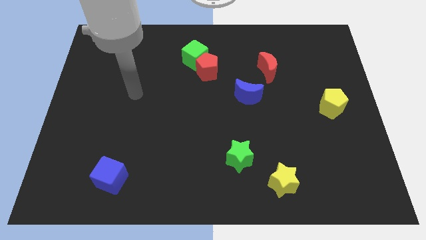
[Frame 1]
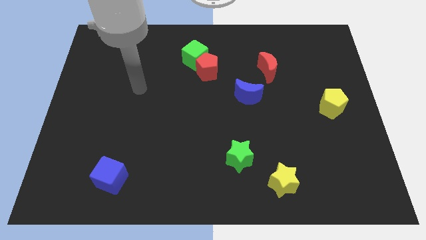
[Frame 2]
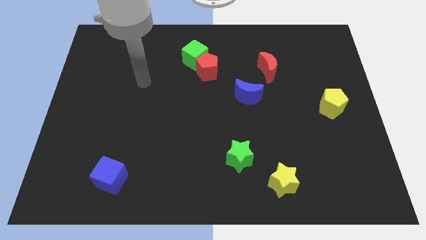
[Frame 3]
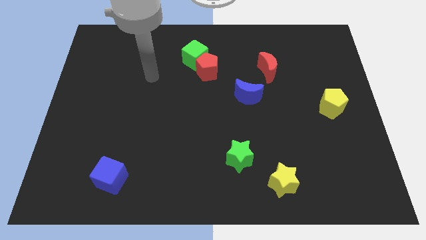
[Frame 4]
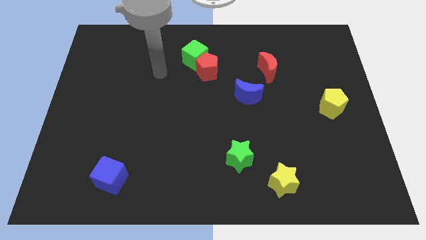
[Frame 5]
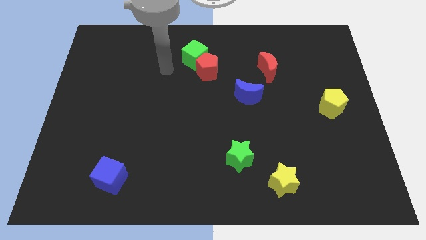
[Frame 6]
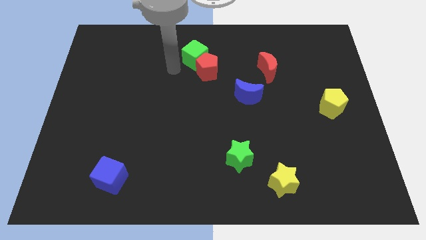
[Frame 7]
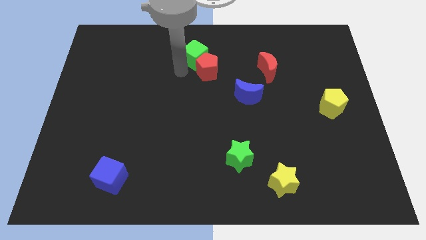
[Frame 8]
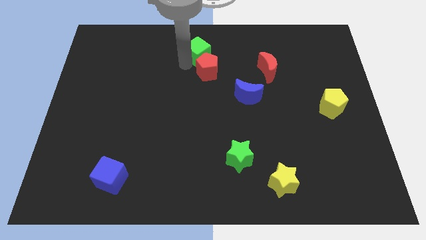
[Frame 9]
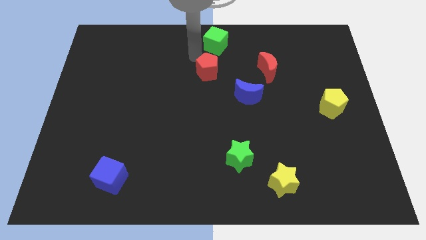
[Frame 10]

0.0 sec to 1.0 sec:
separate the red pentagon from the green cube

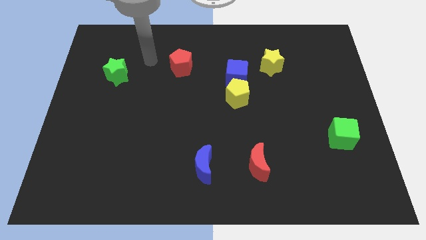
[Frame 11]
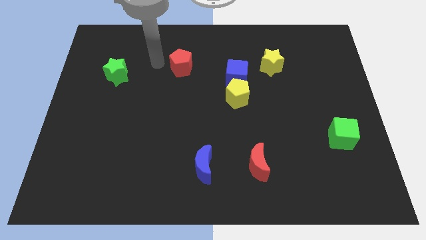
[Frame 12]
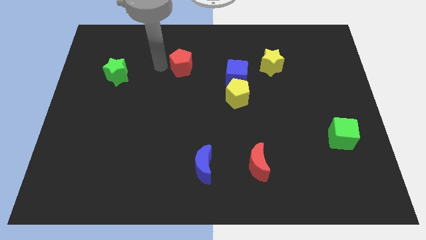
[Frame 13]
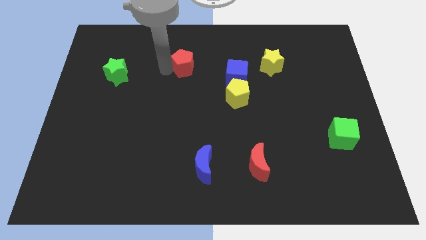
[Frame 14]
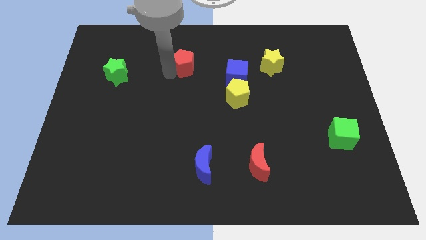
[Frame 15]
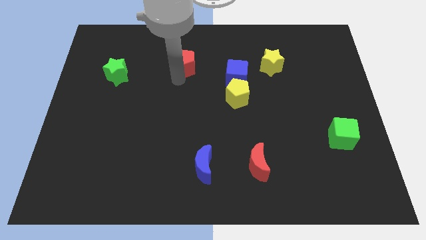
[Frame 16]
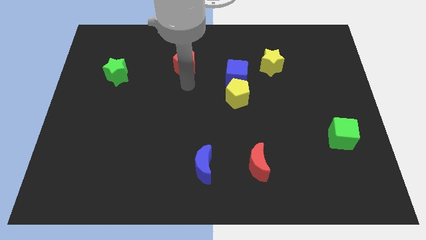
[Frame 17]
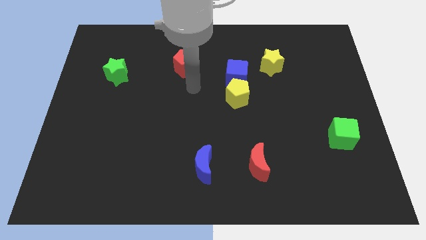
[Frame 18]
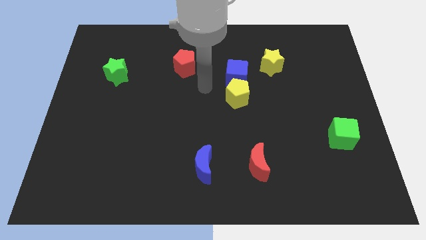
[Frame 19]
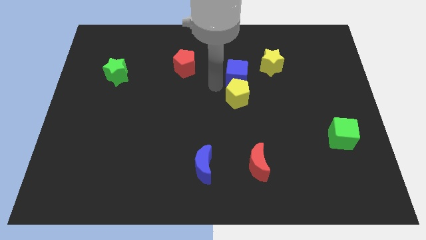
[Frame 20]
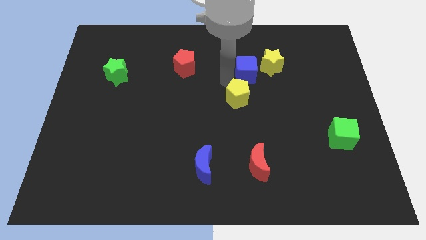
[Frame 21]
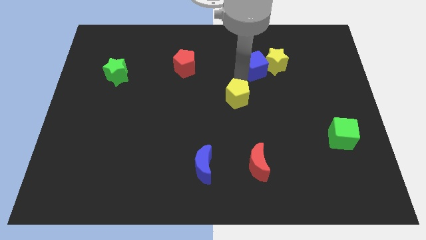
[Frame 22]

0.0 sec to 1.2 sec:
move the yellow pentagon away from the blue cube

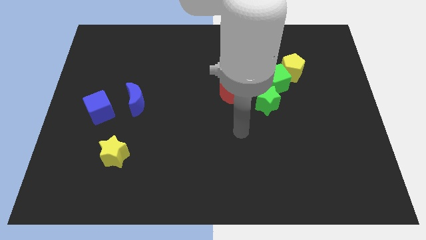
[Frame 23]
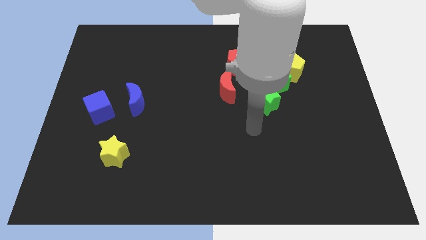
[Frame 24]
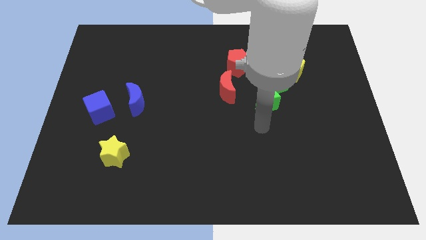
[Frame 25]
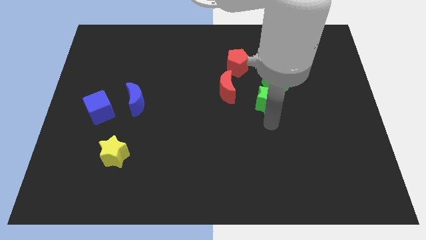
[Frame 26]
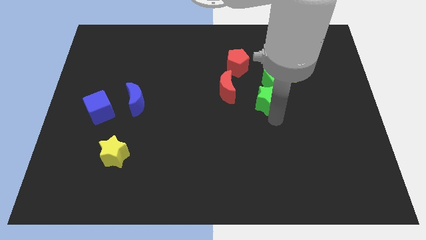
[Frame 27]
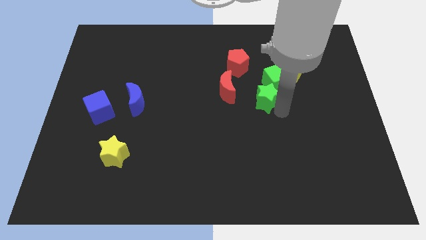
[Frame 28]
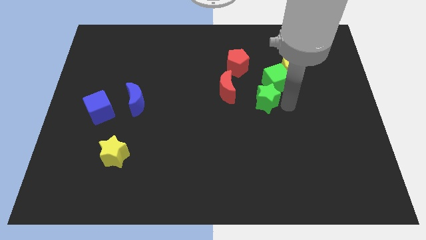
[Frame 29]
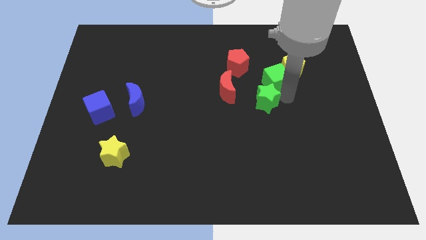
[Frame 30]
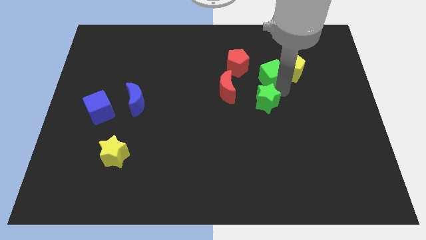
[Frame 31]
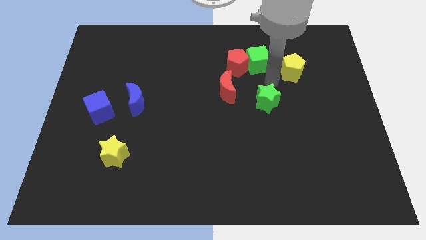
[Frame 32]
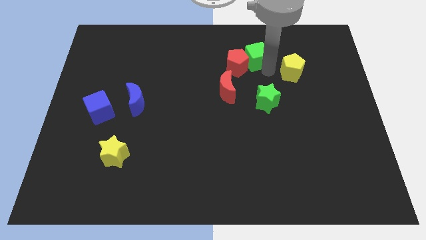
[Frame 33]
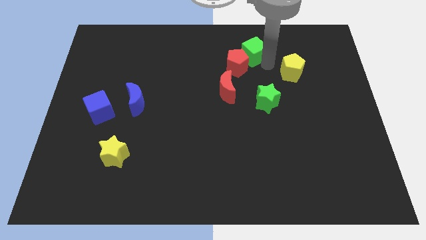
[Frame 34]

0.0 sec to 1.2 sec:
pull the yellow pentagon apart from the green cube

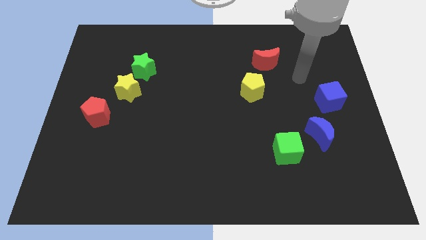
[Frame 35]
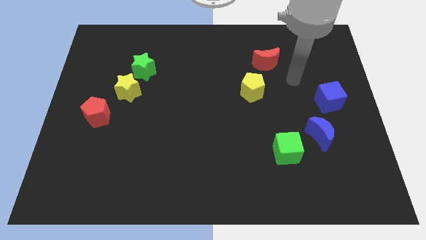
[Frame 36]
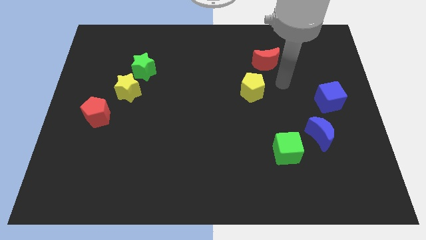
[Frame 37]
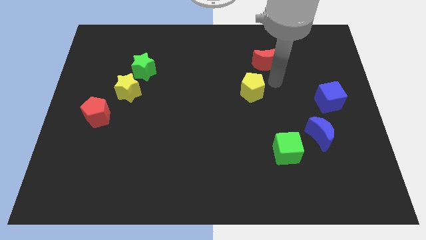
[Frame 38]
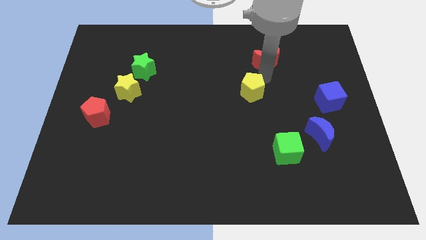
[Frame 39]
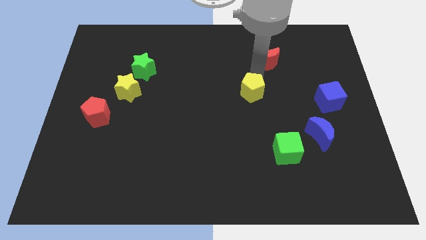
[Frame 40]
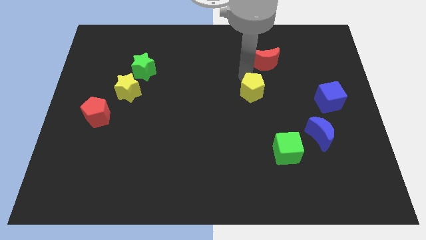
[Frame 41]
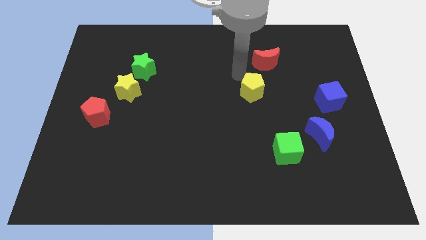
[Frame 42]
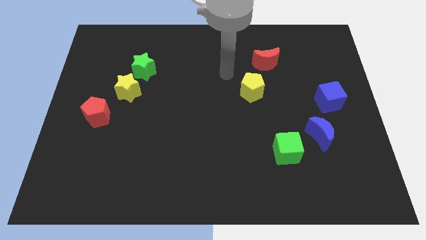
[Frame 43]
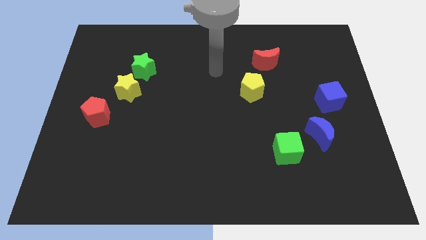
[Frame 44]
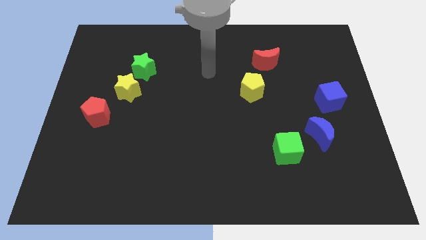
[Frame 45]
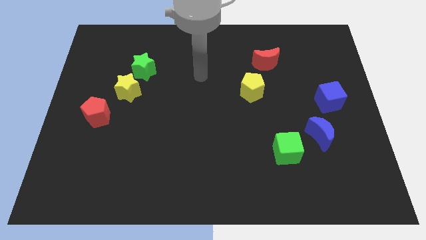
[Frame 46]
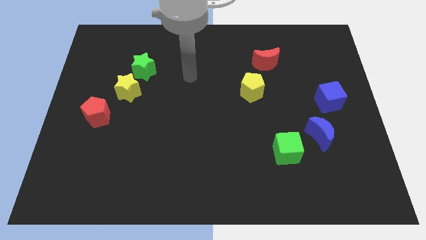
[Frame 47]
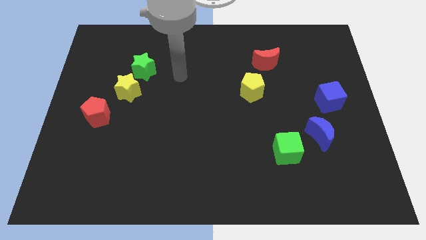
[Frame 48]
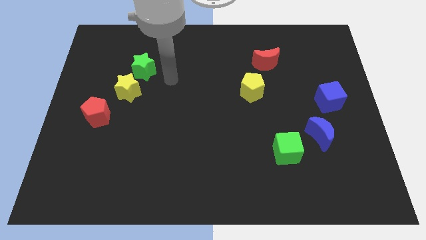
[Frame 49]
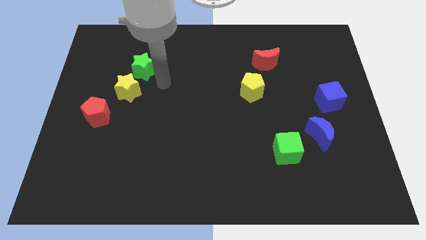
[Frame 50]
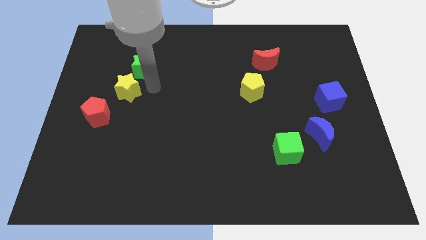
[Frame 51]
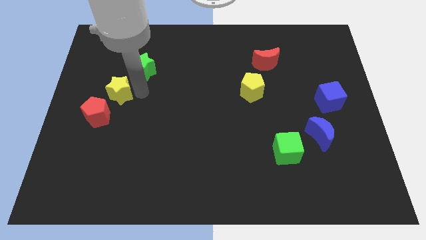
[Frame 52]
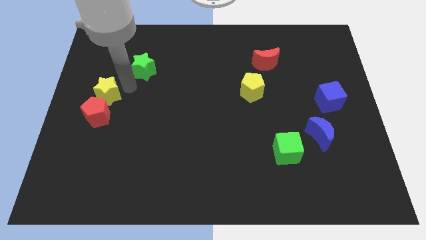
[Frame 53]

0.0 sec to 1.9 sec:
pull the green star apart from the yellow star

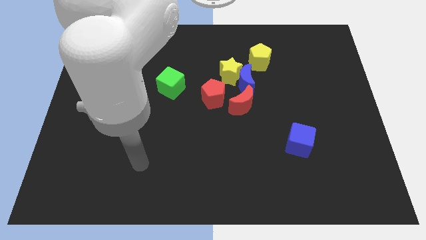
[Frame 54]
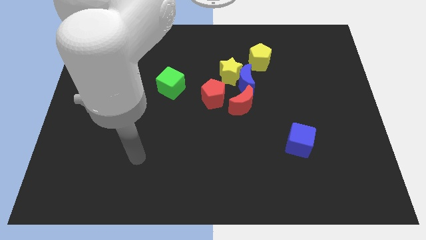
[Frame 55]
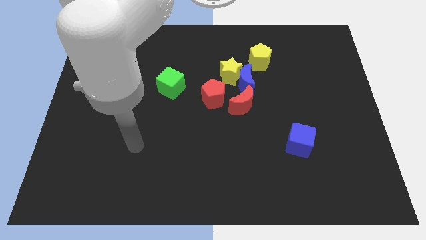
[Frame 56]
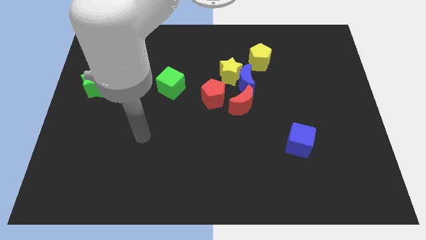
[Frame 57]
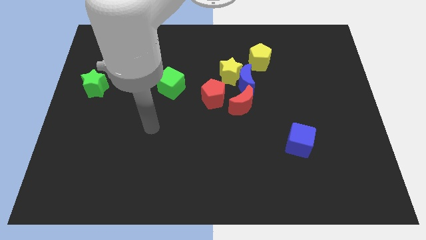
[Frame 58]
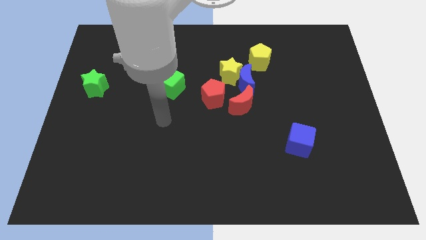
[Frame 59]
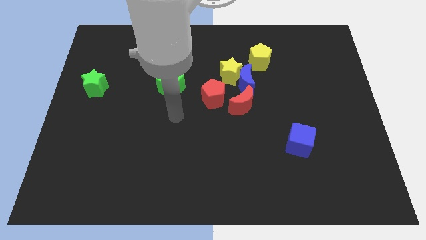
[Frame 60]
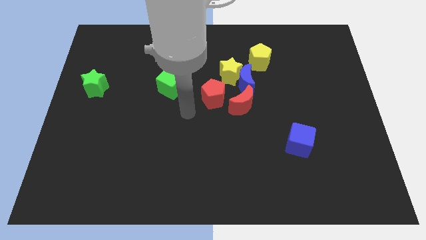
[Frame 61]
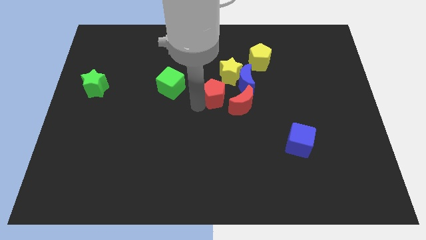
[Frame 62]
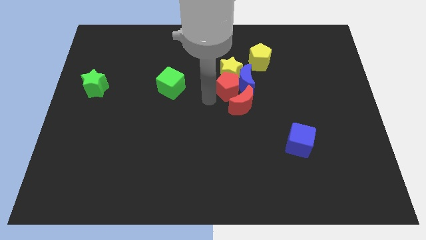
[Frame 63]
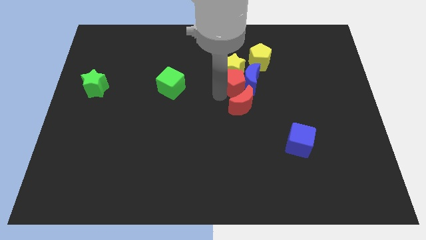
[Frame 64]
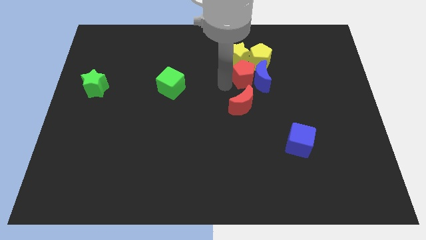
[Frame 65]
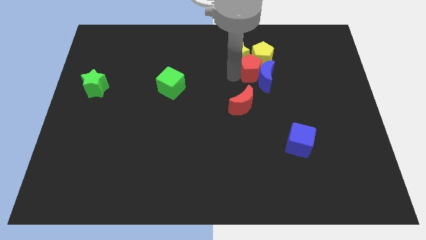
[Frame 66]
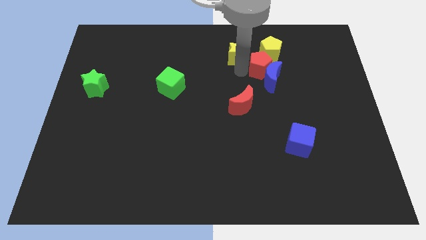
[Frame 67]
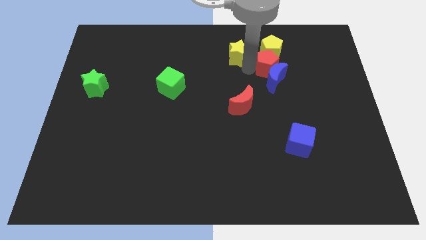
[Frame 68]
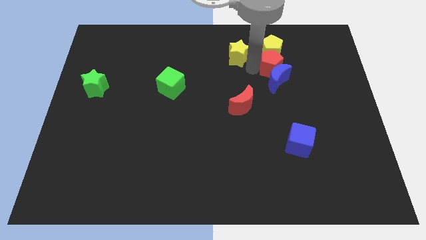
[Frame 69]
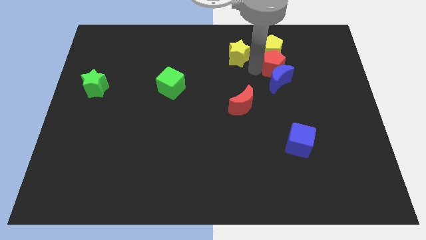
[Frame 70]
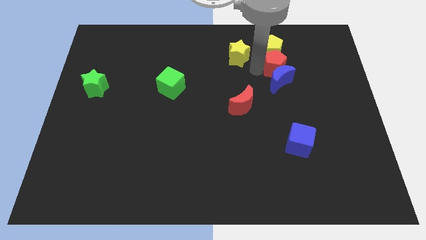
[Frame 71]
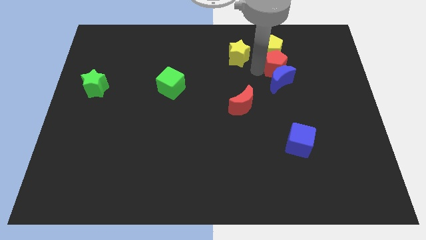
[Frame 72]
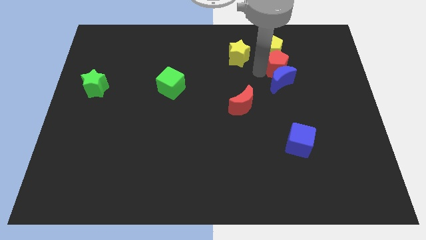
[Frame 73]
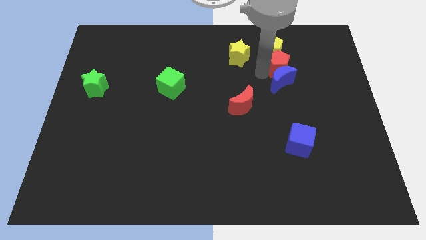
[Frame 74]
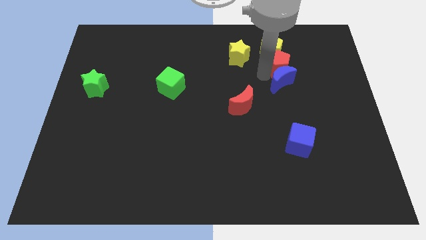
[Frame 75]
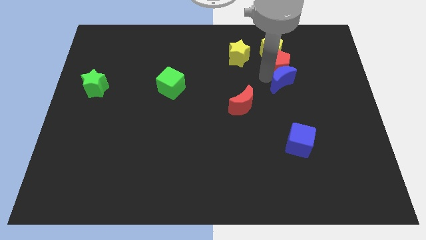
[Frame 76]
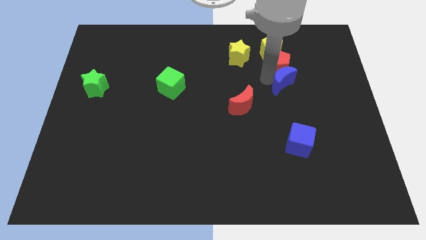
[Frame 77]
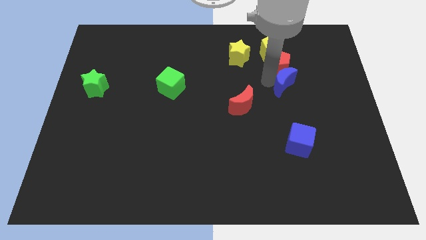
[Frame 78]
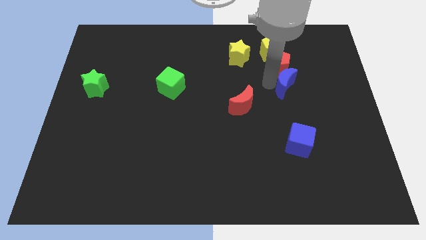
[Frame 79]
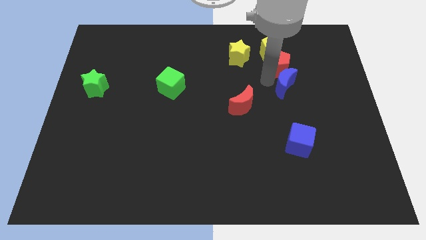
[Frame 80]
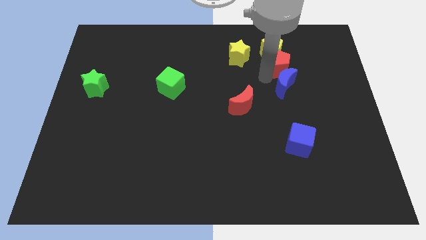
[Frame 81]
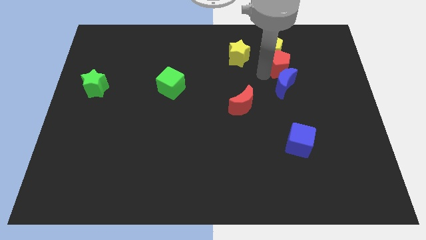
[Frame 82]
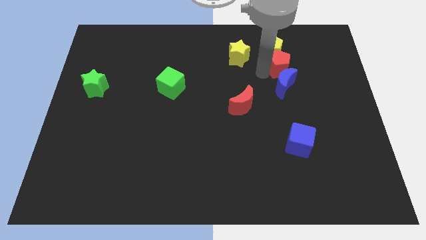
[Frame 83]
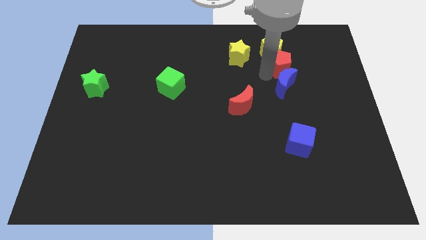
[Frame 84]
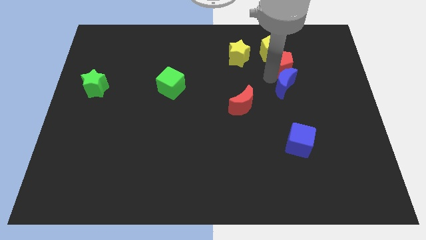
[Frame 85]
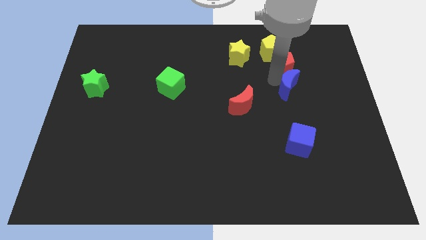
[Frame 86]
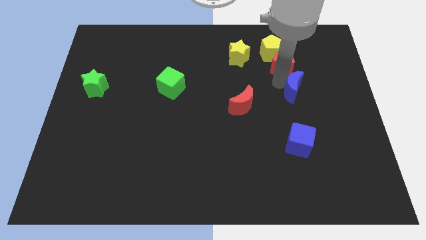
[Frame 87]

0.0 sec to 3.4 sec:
pull the blue moon apart from the group

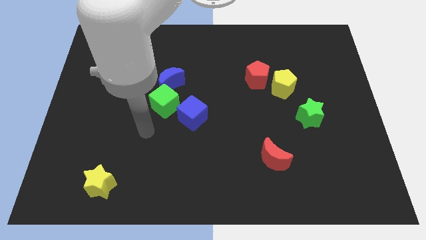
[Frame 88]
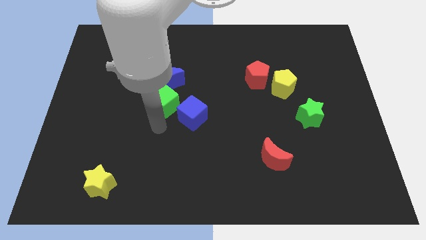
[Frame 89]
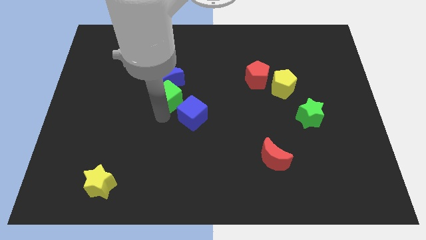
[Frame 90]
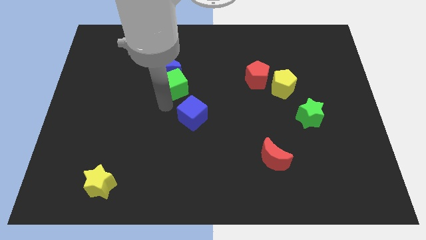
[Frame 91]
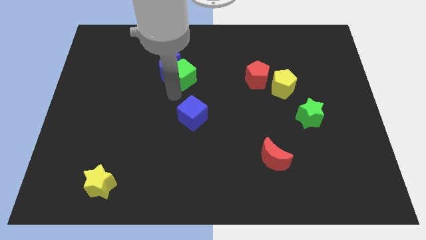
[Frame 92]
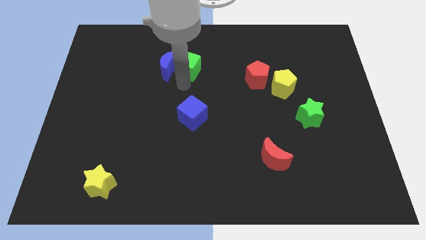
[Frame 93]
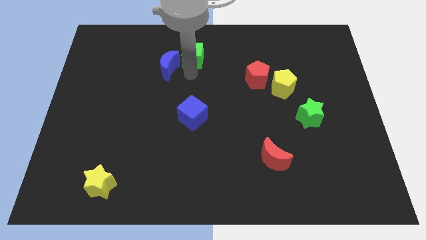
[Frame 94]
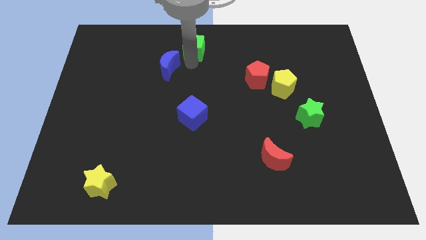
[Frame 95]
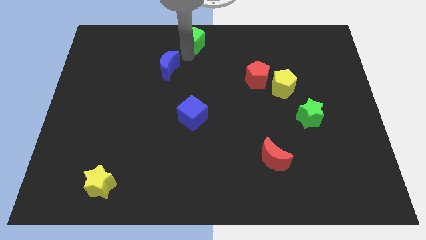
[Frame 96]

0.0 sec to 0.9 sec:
move the blue moon away from the green cube
